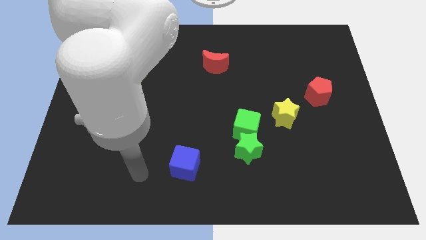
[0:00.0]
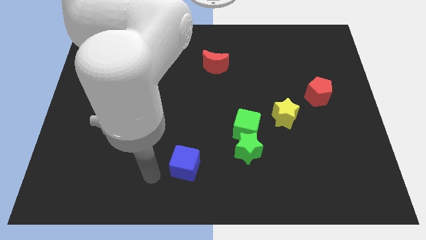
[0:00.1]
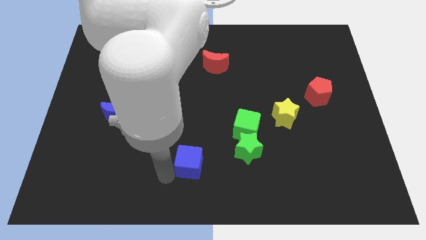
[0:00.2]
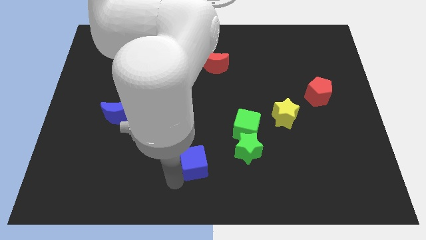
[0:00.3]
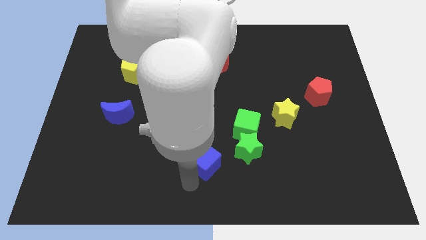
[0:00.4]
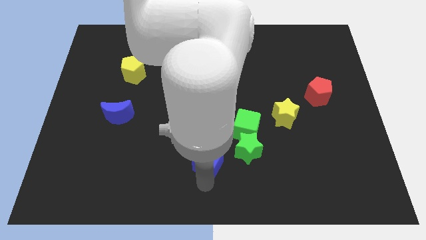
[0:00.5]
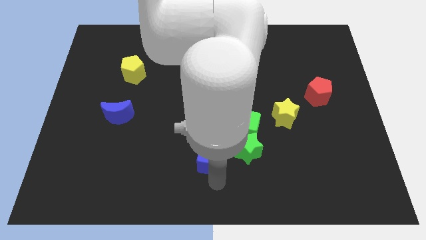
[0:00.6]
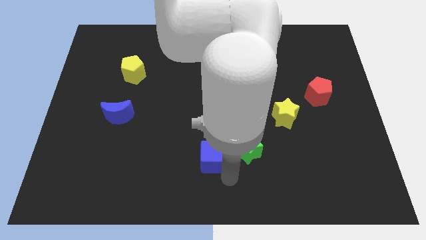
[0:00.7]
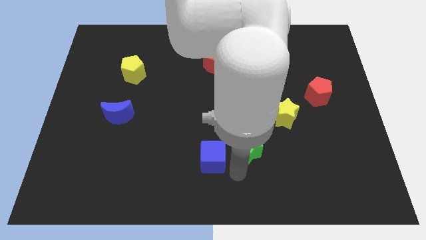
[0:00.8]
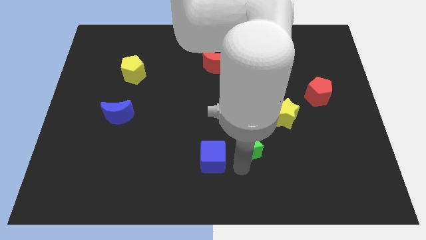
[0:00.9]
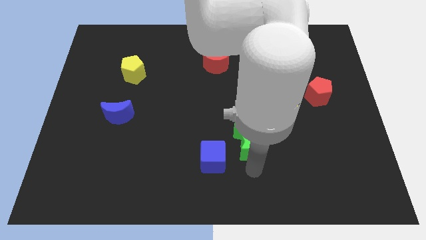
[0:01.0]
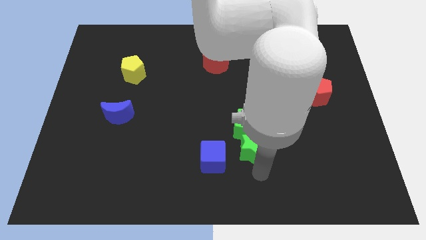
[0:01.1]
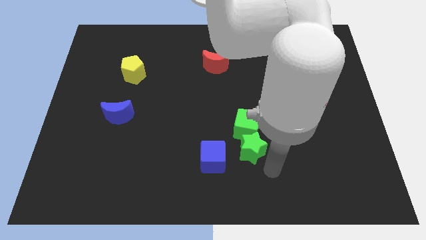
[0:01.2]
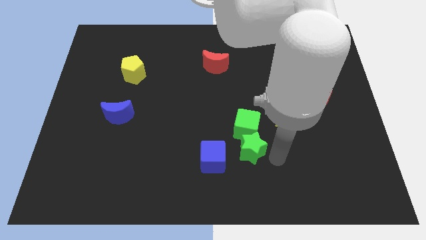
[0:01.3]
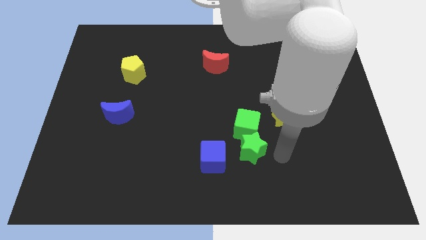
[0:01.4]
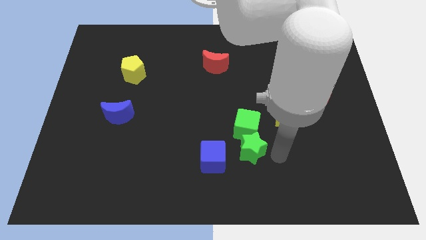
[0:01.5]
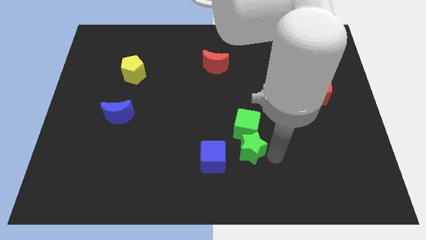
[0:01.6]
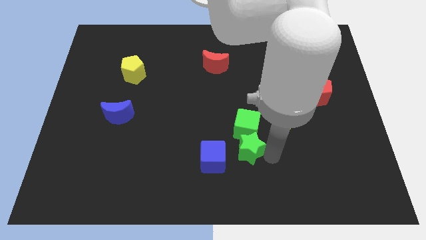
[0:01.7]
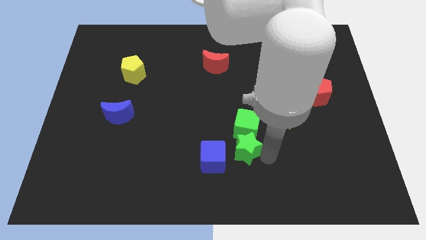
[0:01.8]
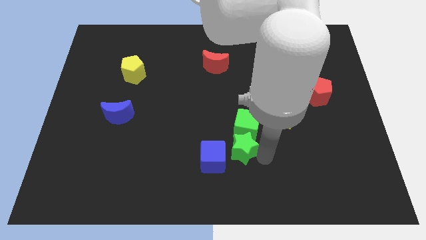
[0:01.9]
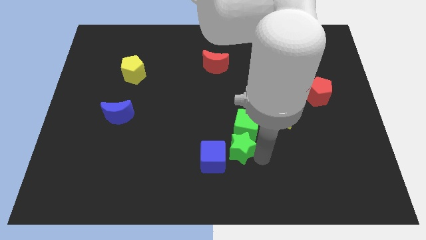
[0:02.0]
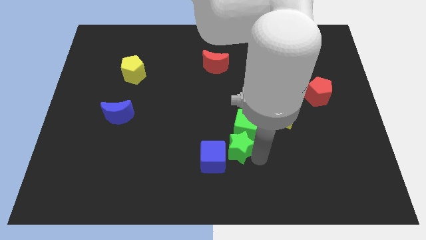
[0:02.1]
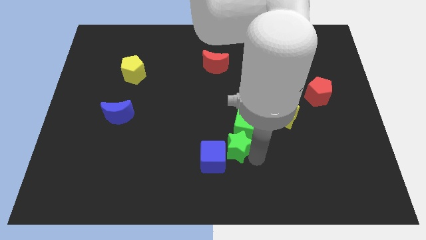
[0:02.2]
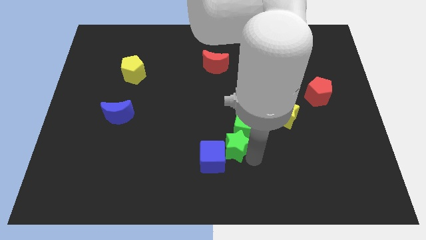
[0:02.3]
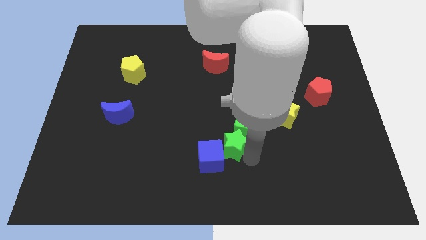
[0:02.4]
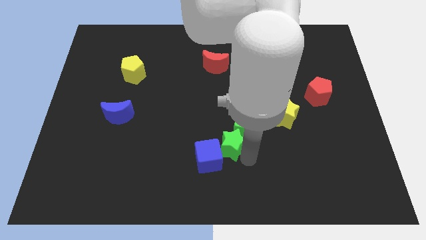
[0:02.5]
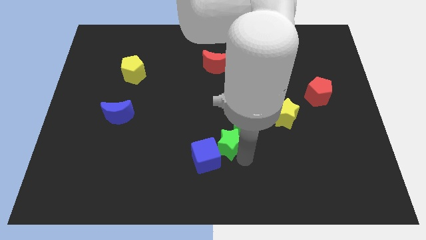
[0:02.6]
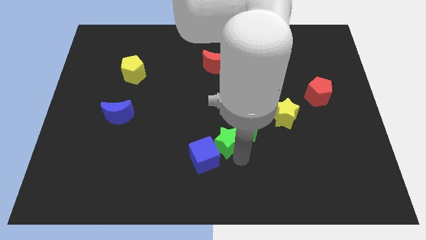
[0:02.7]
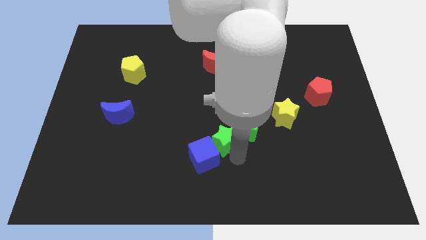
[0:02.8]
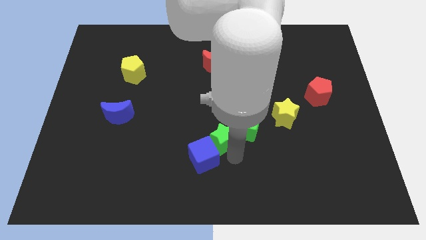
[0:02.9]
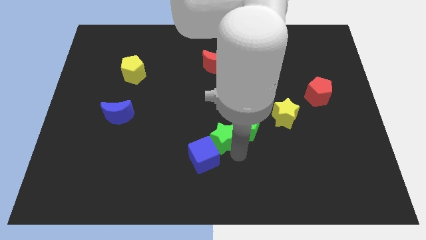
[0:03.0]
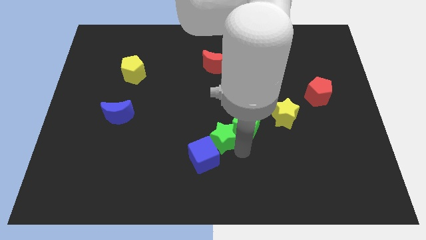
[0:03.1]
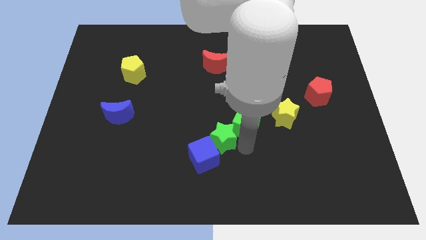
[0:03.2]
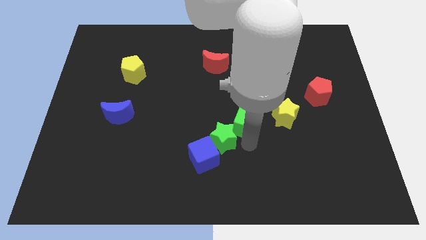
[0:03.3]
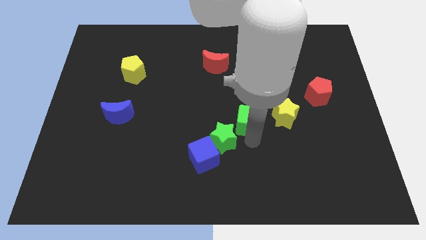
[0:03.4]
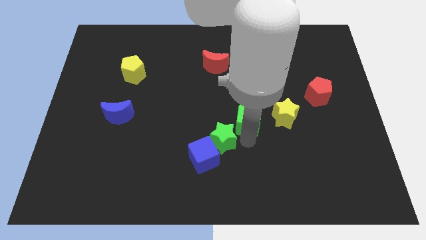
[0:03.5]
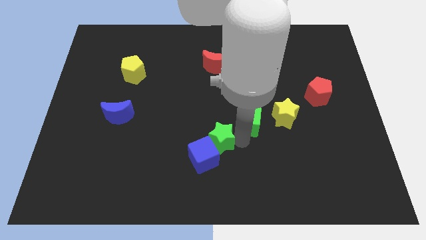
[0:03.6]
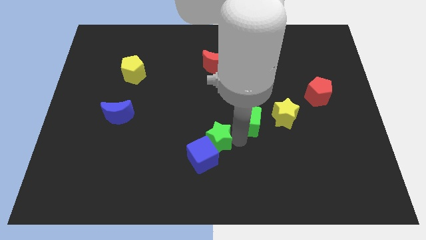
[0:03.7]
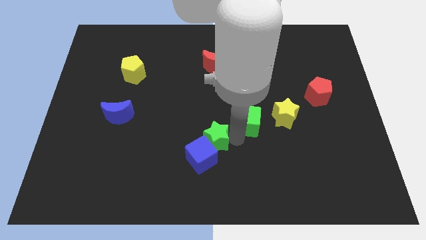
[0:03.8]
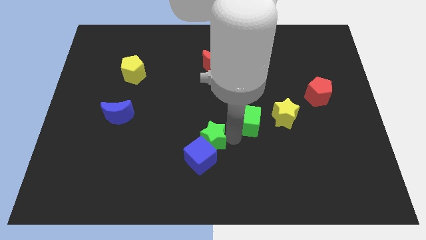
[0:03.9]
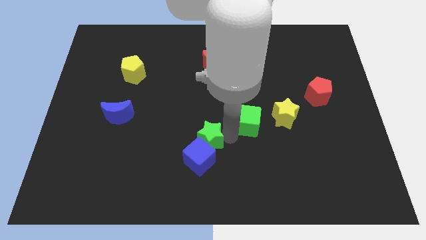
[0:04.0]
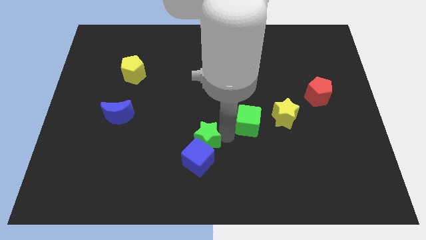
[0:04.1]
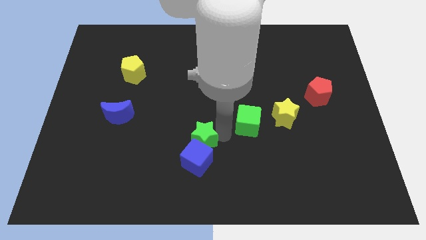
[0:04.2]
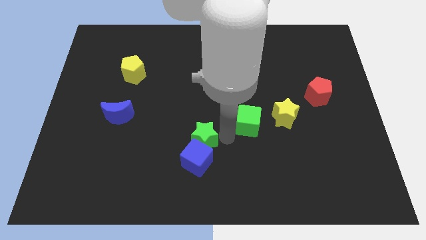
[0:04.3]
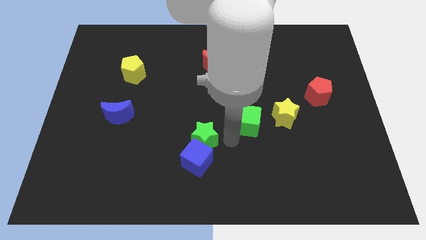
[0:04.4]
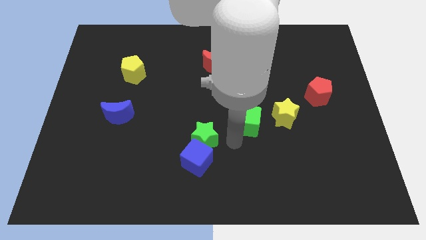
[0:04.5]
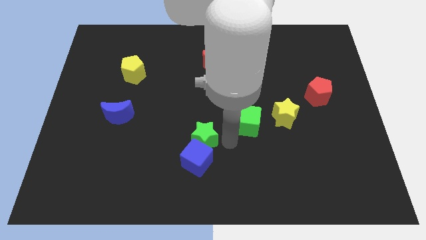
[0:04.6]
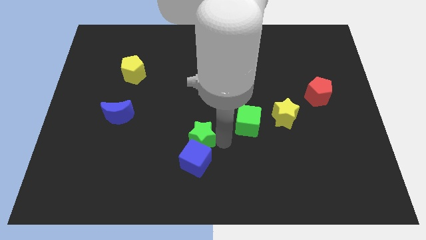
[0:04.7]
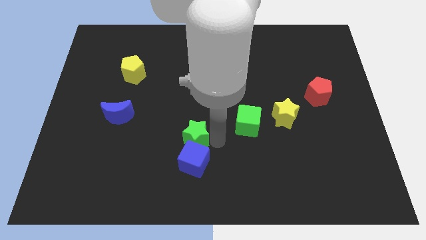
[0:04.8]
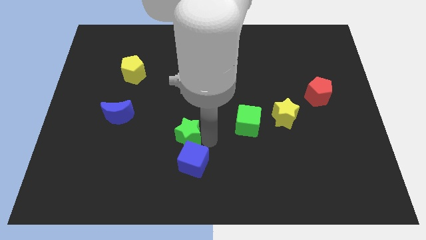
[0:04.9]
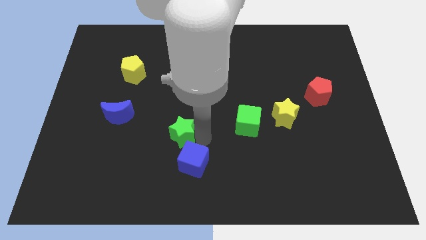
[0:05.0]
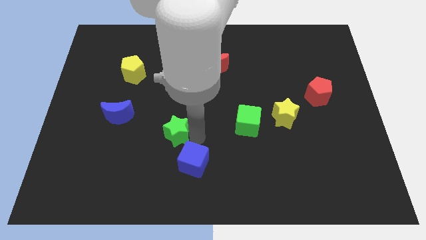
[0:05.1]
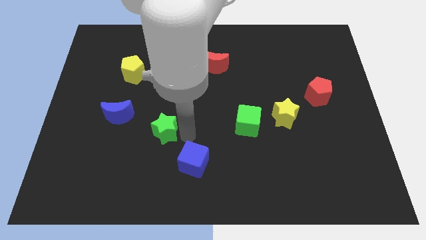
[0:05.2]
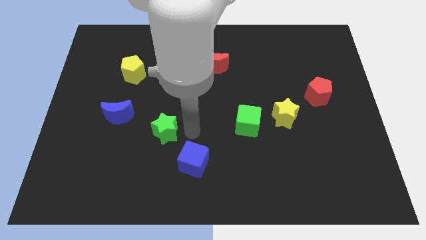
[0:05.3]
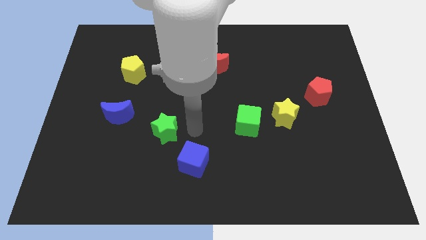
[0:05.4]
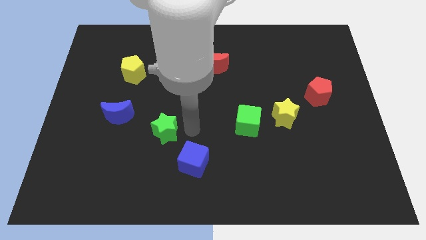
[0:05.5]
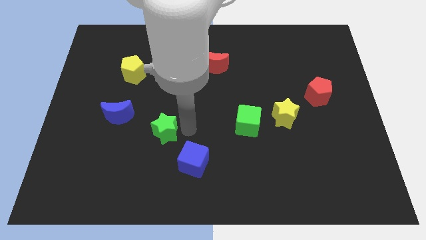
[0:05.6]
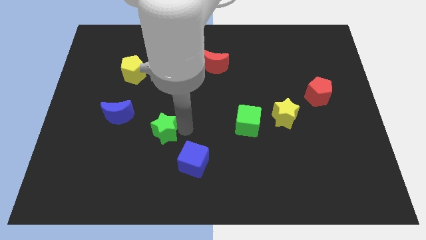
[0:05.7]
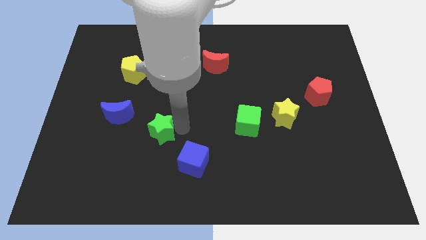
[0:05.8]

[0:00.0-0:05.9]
push the green star to the bottom right side of the blue moon
